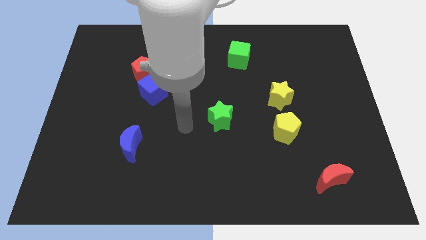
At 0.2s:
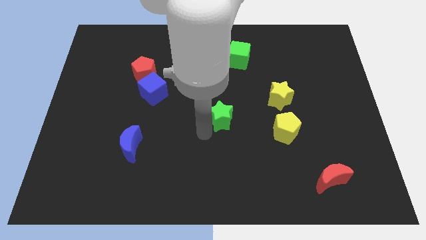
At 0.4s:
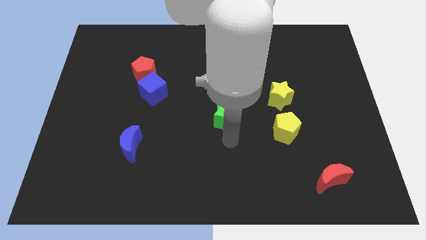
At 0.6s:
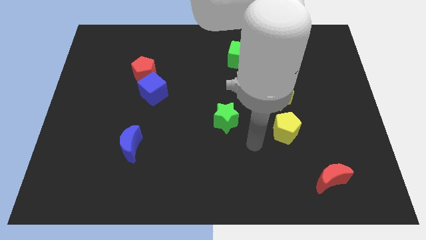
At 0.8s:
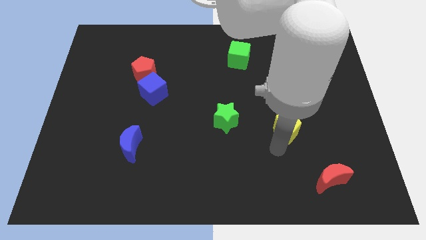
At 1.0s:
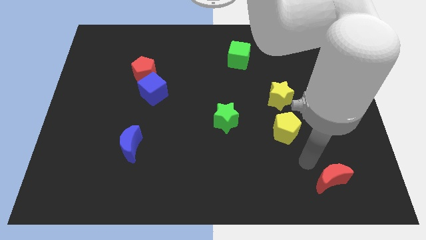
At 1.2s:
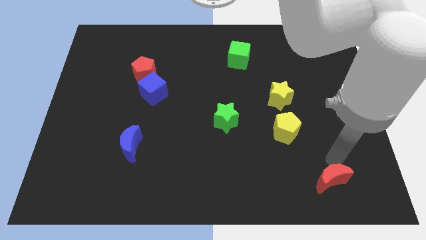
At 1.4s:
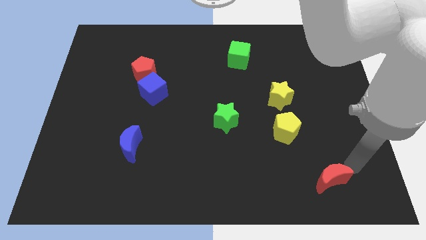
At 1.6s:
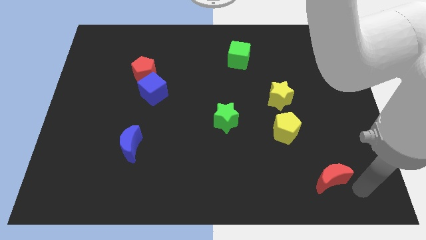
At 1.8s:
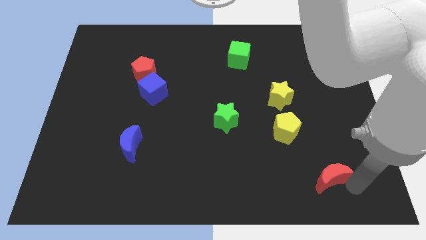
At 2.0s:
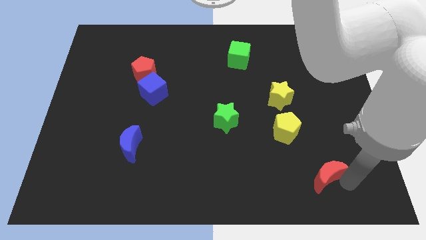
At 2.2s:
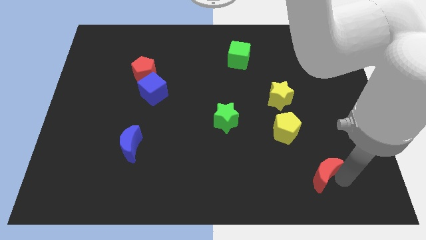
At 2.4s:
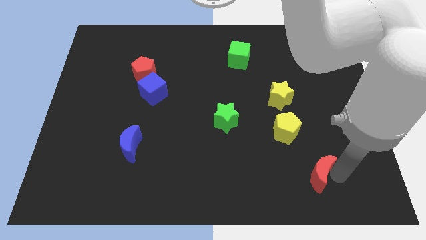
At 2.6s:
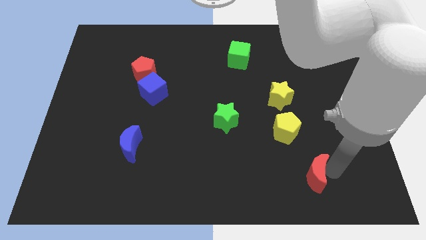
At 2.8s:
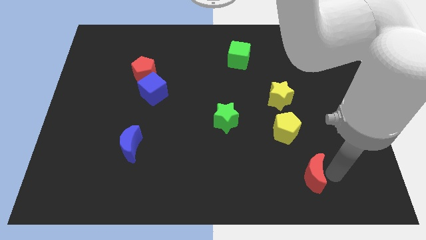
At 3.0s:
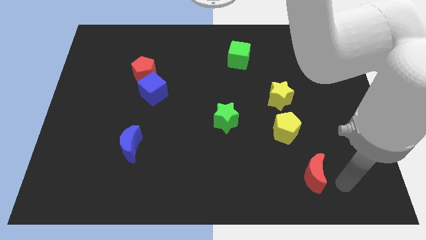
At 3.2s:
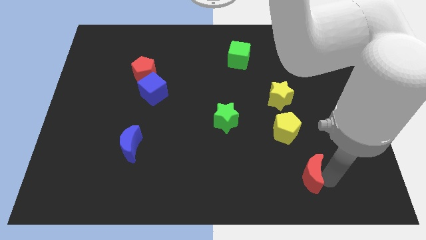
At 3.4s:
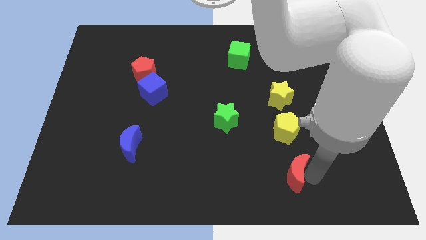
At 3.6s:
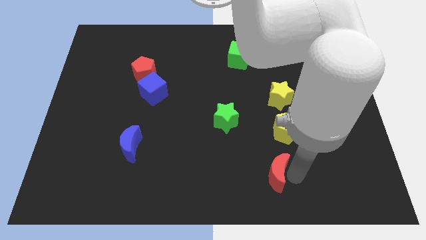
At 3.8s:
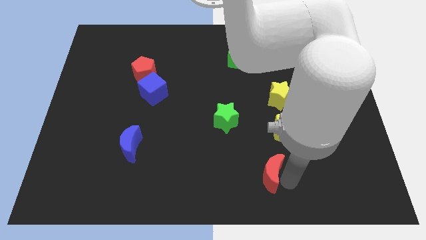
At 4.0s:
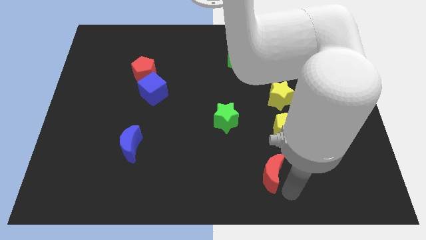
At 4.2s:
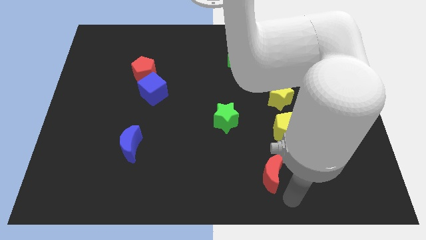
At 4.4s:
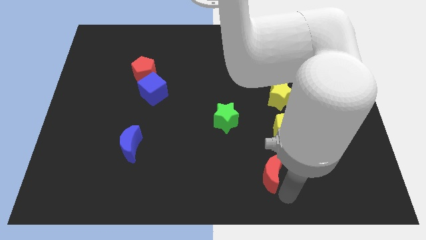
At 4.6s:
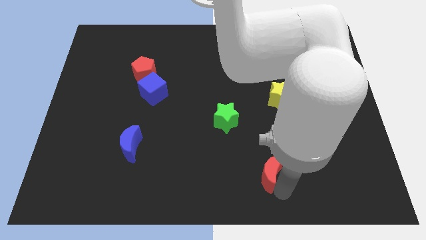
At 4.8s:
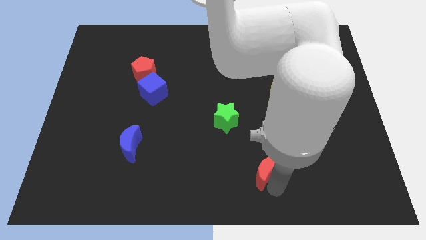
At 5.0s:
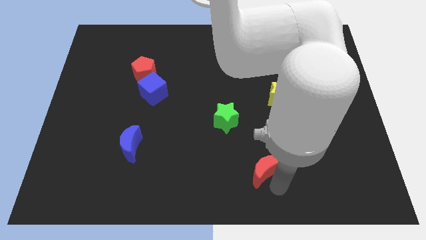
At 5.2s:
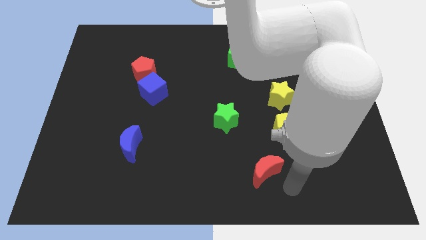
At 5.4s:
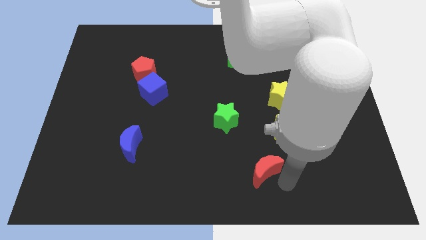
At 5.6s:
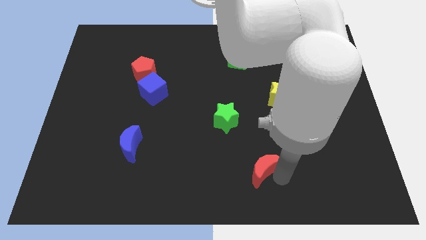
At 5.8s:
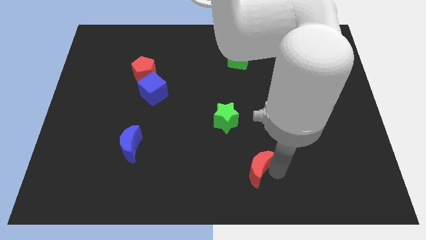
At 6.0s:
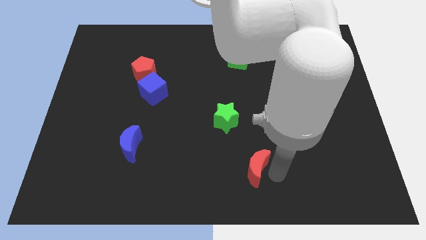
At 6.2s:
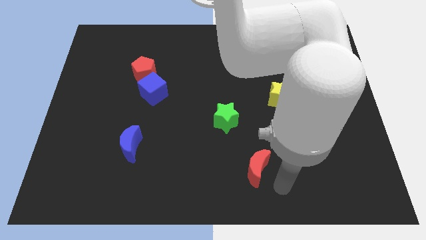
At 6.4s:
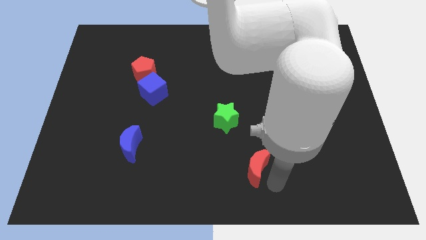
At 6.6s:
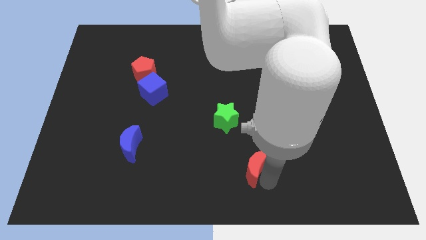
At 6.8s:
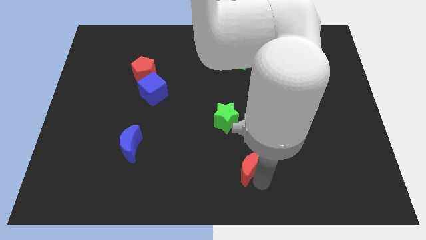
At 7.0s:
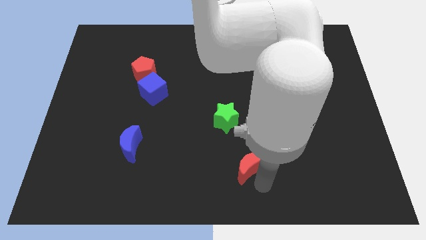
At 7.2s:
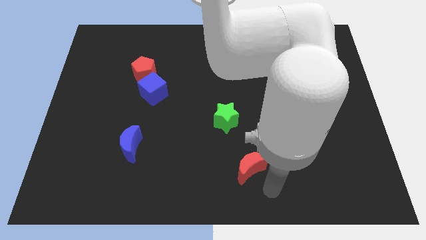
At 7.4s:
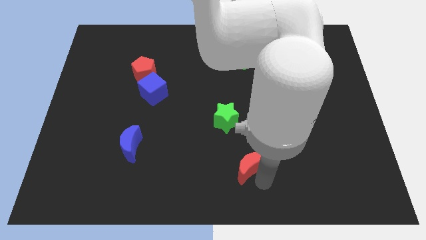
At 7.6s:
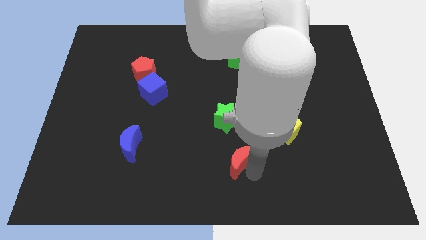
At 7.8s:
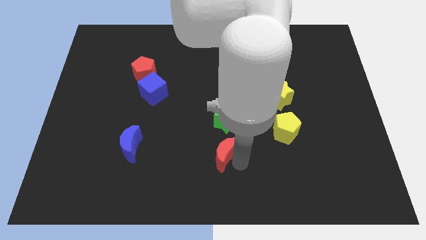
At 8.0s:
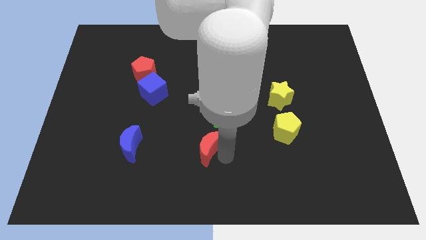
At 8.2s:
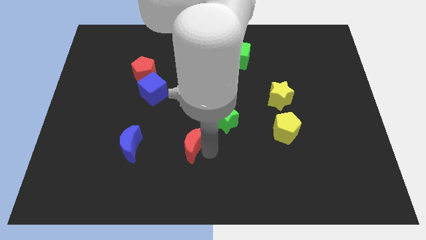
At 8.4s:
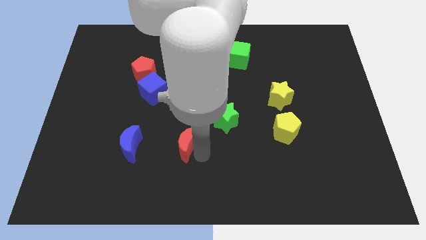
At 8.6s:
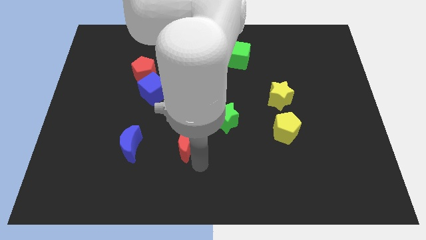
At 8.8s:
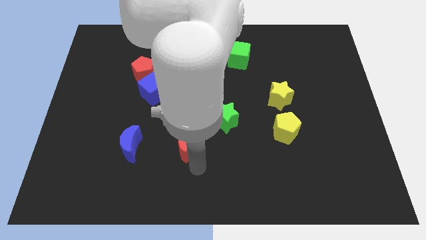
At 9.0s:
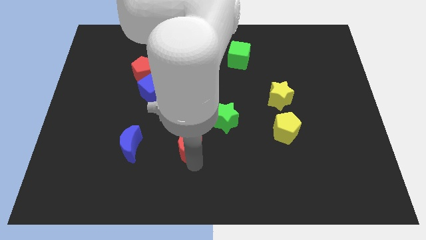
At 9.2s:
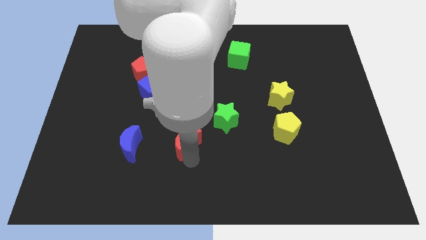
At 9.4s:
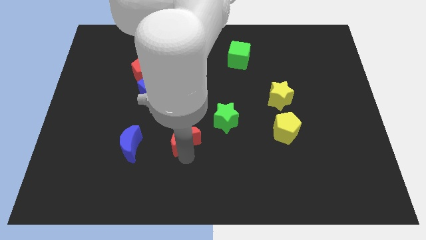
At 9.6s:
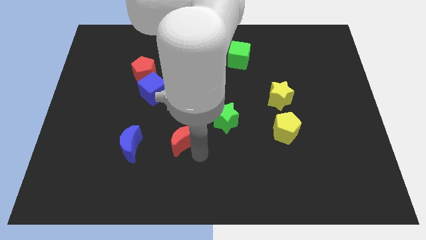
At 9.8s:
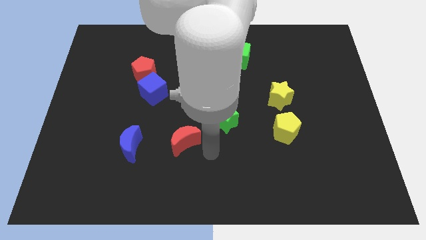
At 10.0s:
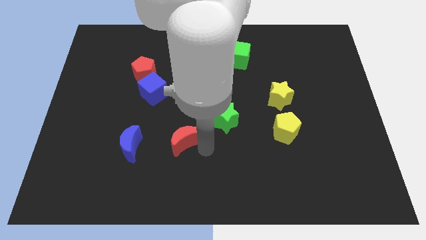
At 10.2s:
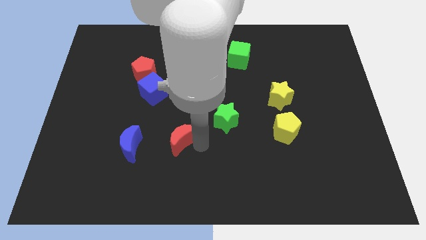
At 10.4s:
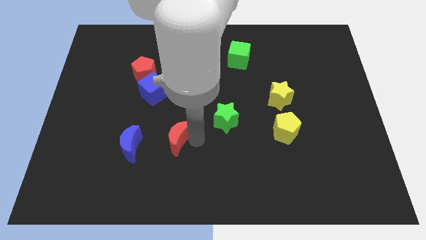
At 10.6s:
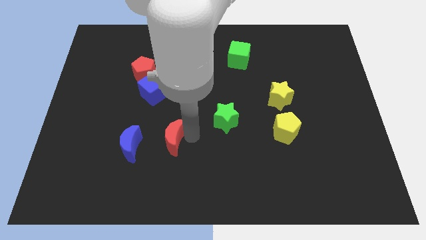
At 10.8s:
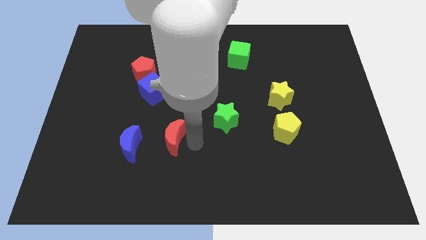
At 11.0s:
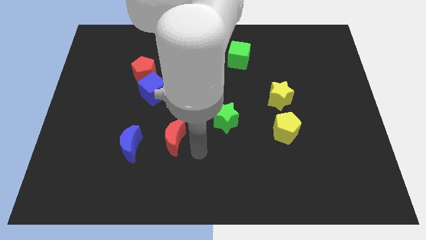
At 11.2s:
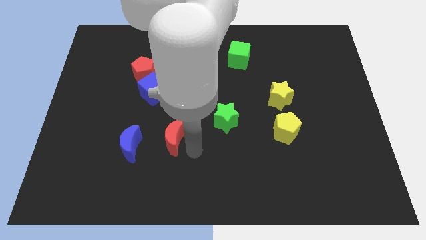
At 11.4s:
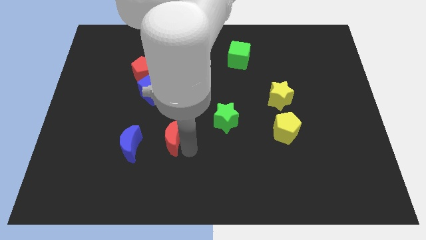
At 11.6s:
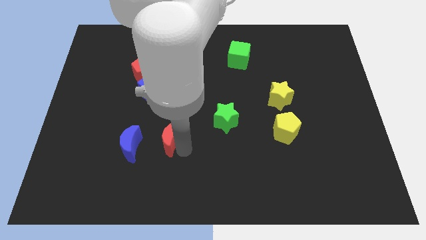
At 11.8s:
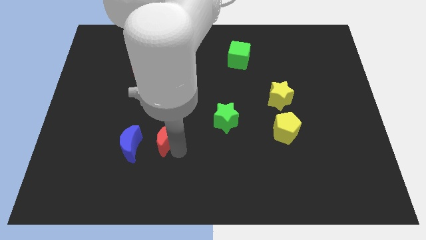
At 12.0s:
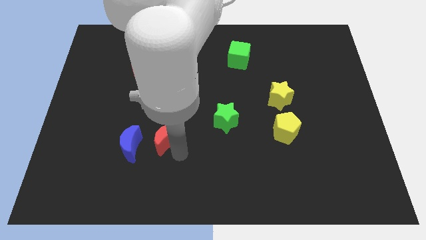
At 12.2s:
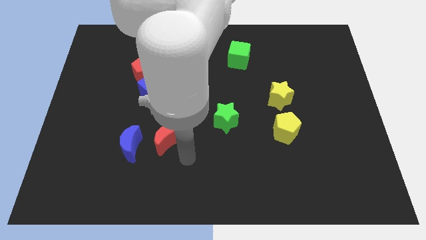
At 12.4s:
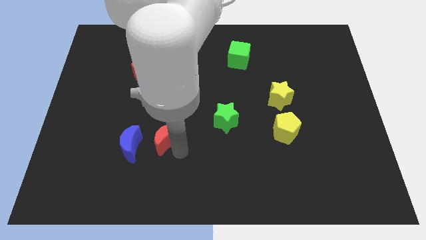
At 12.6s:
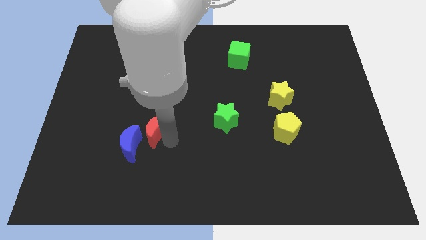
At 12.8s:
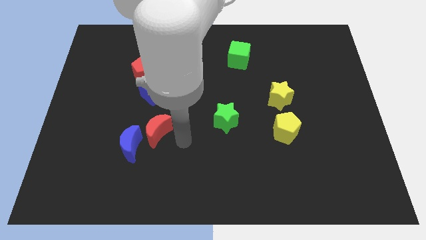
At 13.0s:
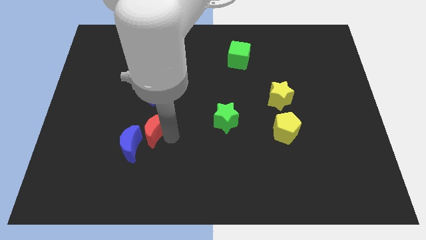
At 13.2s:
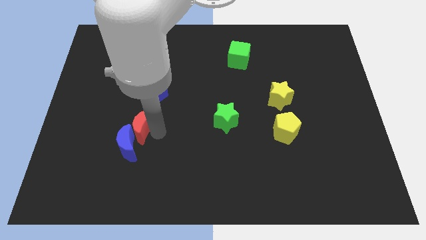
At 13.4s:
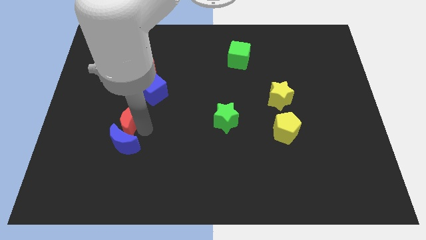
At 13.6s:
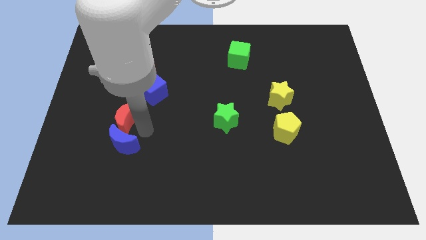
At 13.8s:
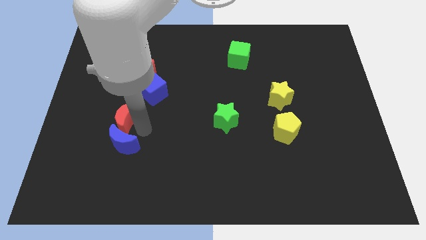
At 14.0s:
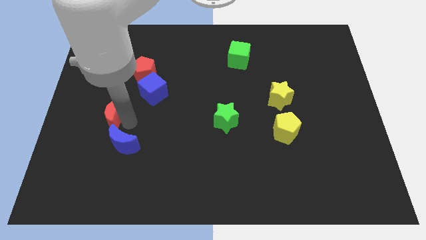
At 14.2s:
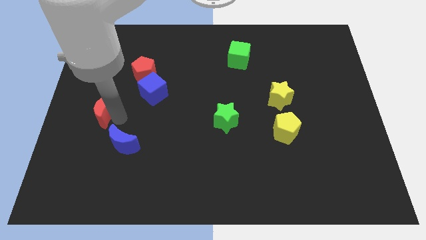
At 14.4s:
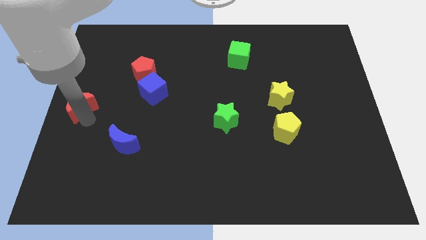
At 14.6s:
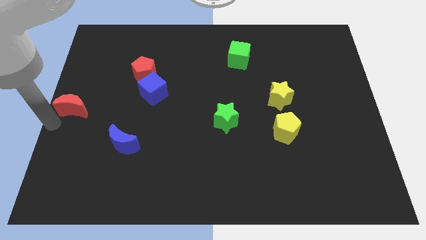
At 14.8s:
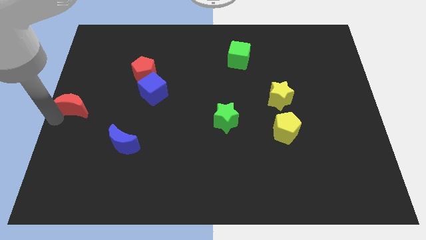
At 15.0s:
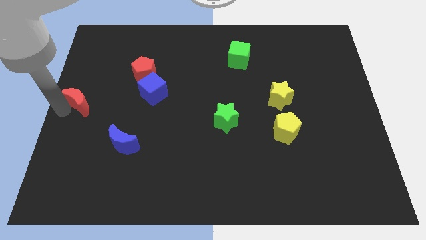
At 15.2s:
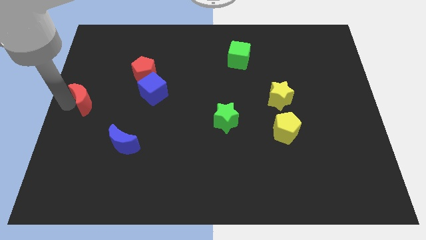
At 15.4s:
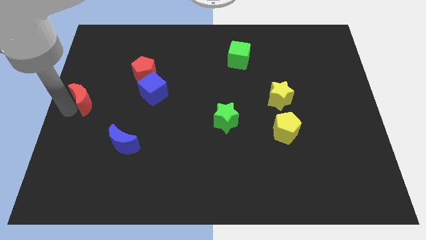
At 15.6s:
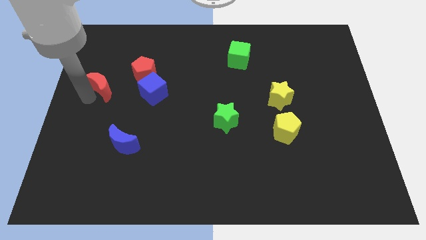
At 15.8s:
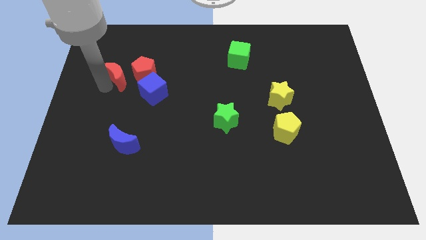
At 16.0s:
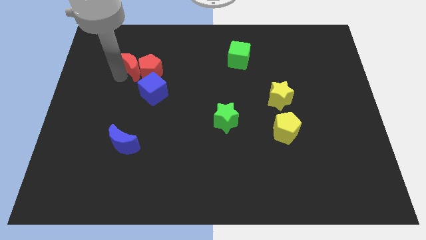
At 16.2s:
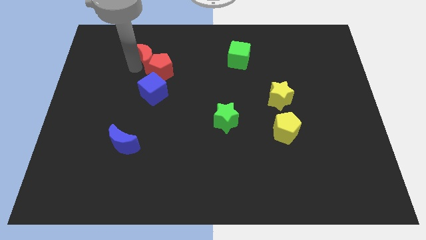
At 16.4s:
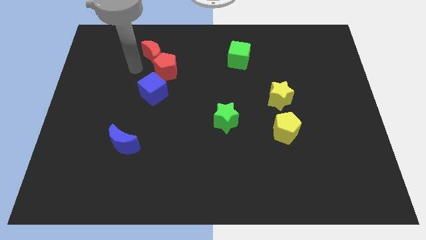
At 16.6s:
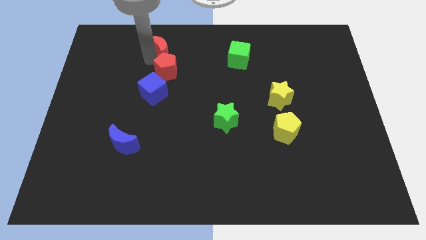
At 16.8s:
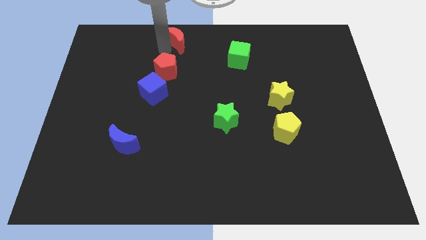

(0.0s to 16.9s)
move the red moon to the top
